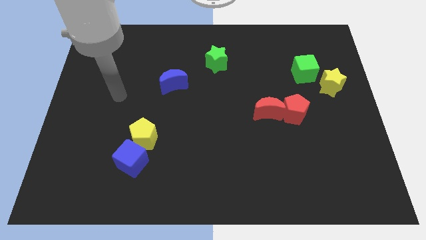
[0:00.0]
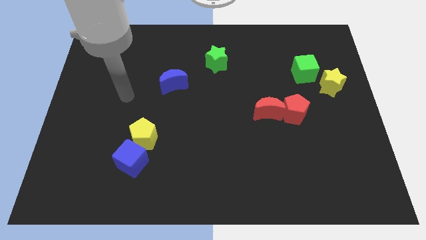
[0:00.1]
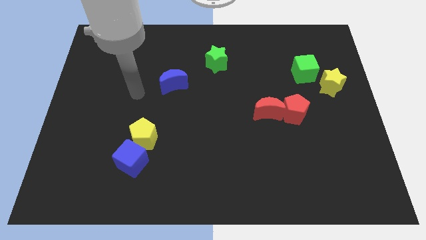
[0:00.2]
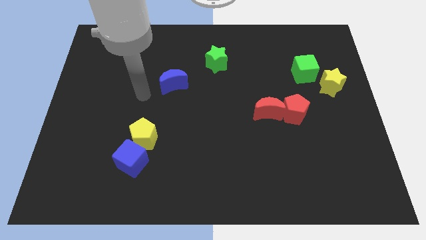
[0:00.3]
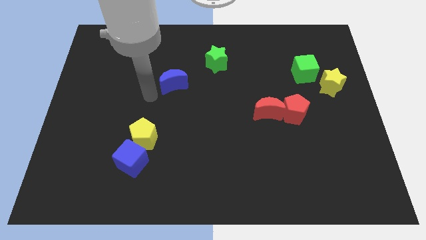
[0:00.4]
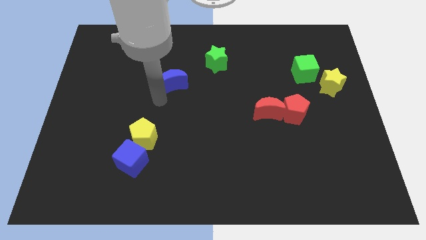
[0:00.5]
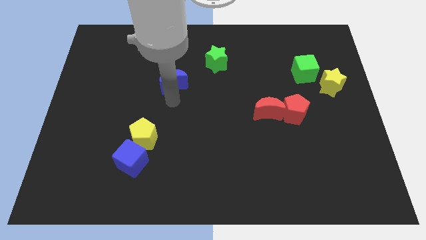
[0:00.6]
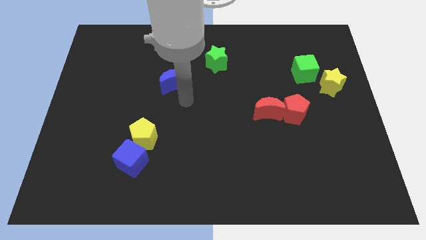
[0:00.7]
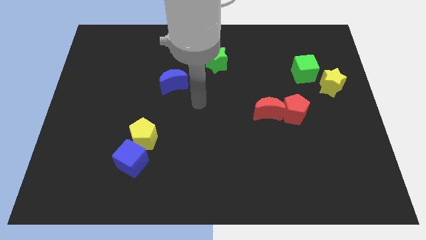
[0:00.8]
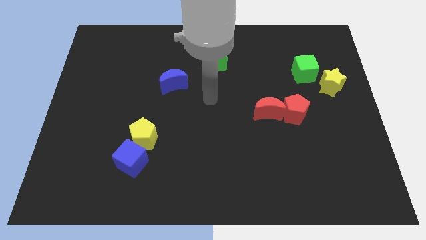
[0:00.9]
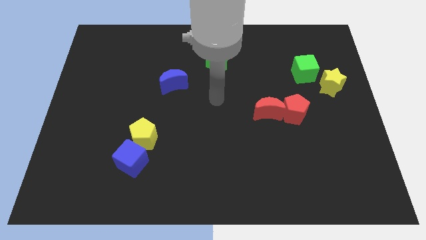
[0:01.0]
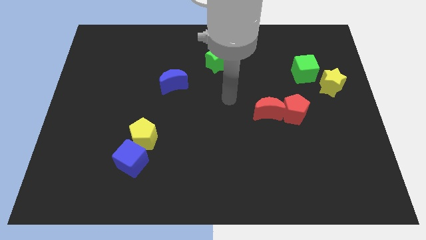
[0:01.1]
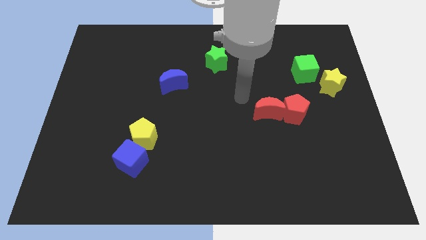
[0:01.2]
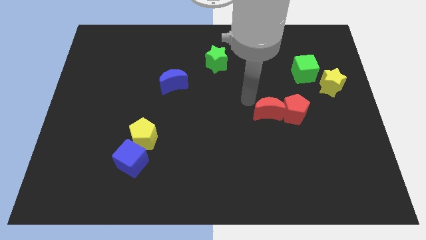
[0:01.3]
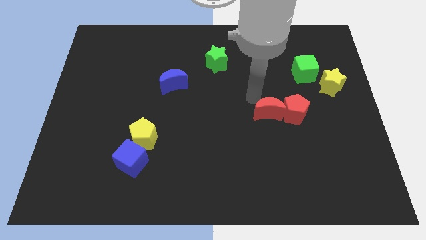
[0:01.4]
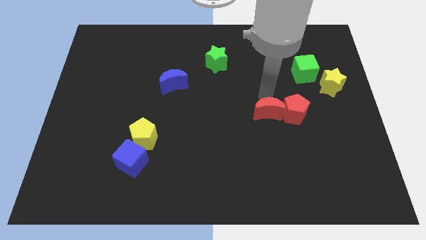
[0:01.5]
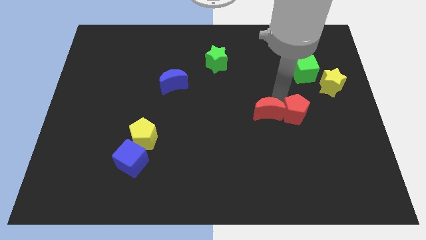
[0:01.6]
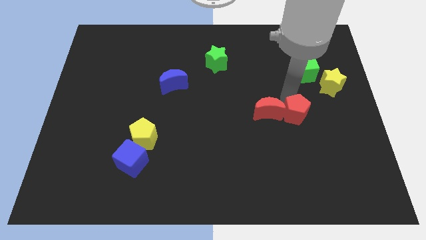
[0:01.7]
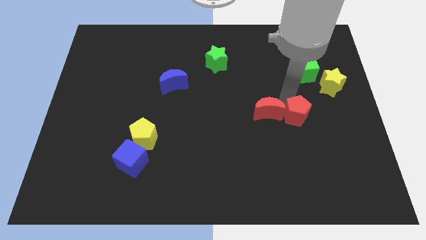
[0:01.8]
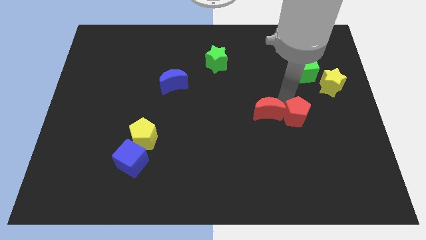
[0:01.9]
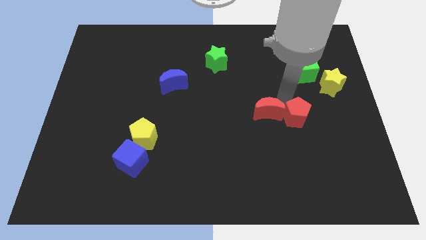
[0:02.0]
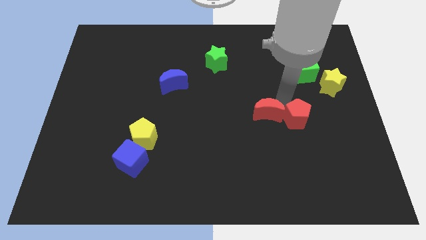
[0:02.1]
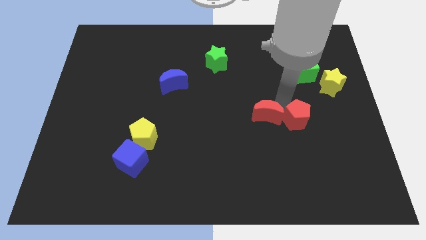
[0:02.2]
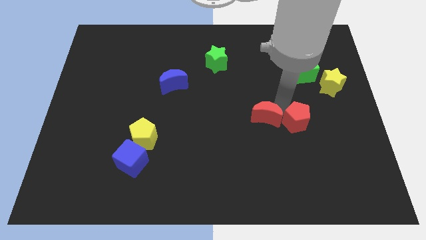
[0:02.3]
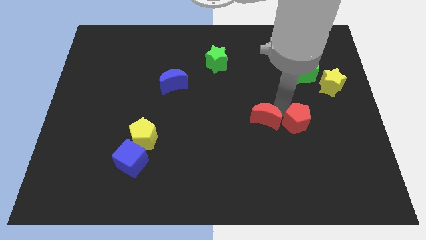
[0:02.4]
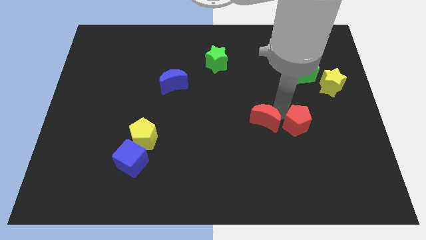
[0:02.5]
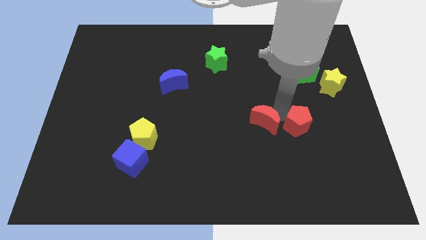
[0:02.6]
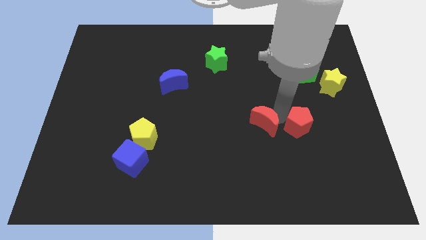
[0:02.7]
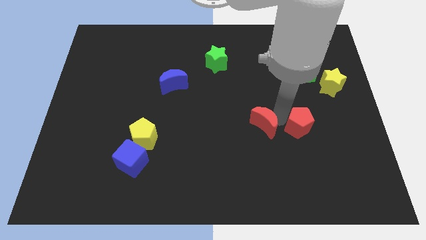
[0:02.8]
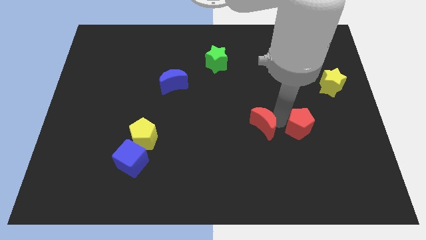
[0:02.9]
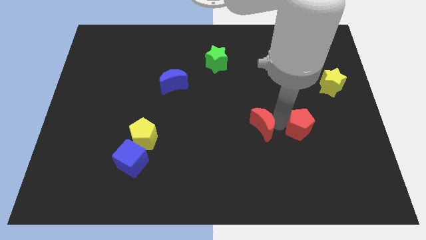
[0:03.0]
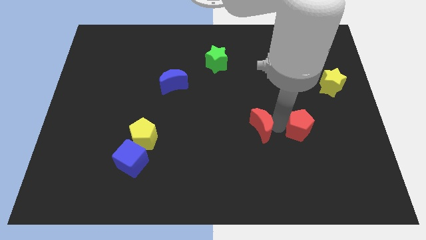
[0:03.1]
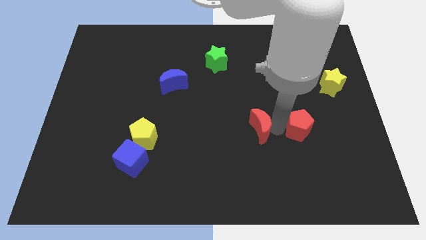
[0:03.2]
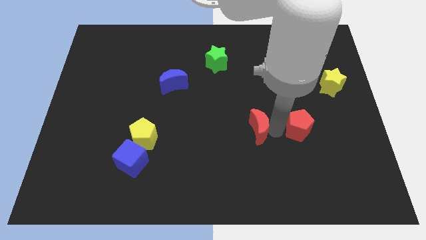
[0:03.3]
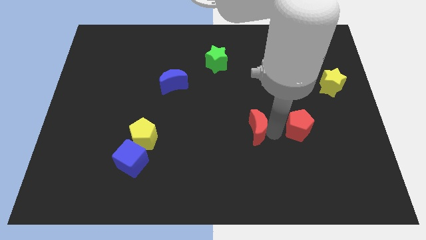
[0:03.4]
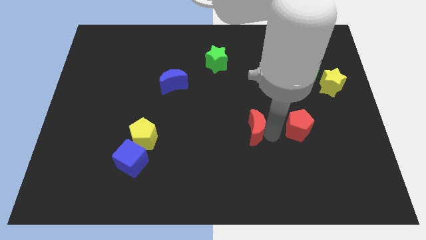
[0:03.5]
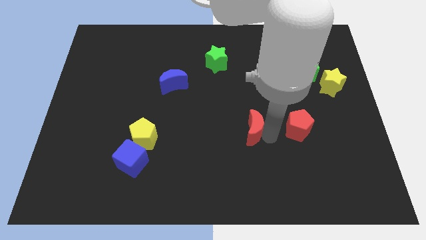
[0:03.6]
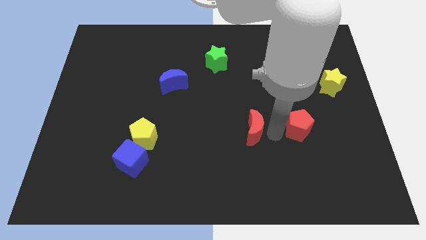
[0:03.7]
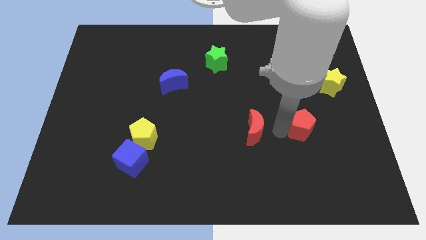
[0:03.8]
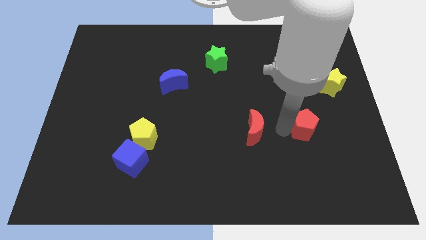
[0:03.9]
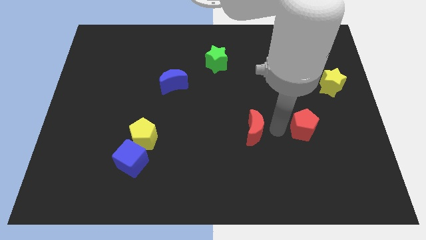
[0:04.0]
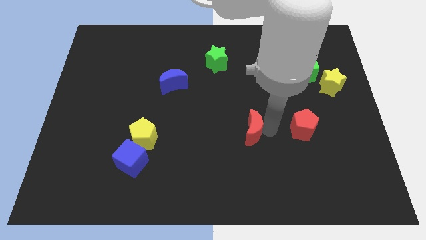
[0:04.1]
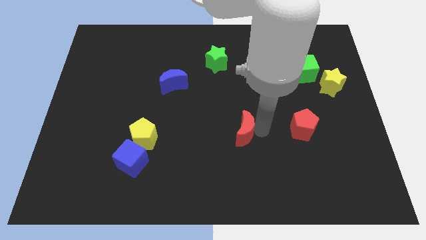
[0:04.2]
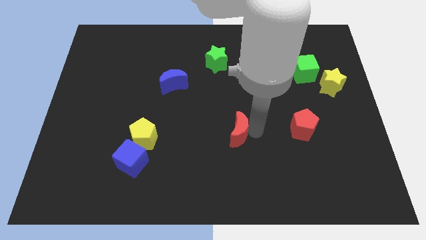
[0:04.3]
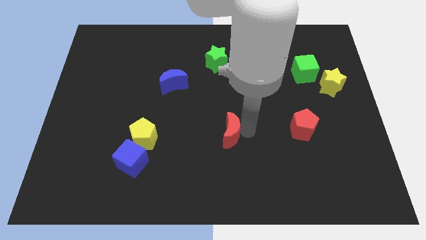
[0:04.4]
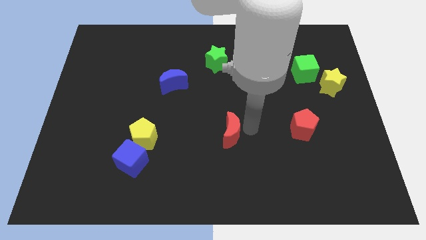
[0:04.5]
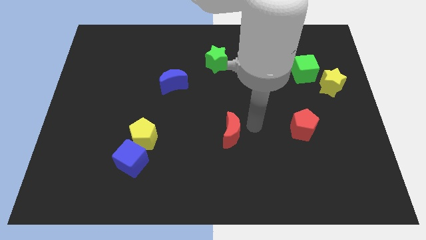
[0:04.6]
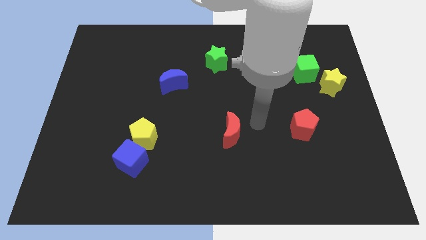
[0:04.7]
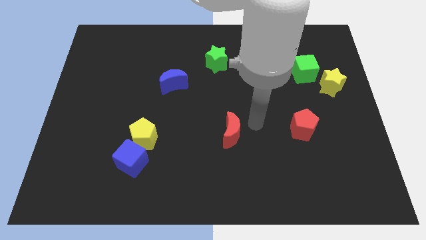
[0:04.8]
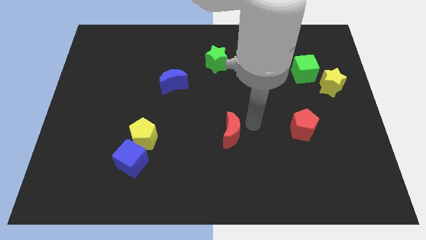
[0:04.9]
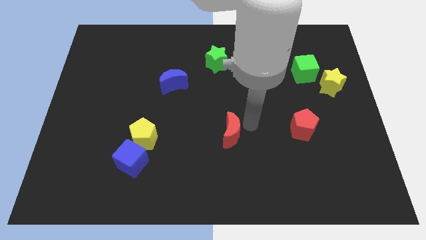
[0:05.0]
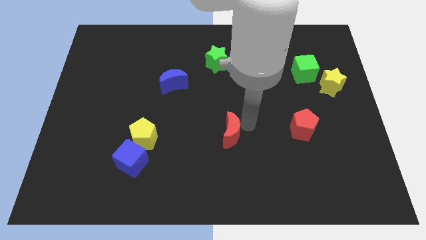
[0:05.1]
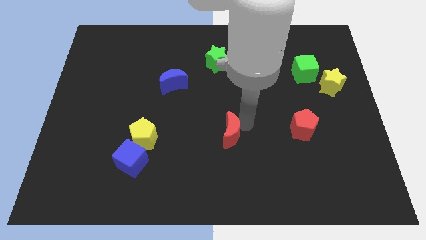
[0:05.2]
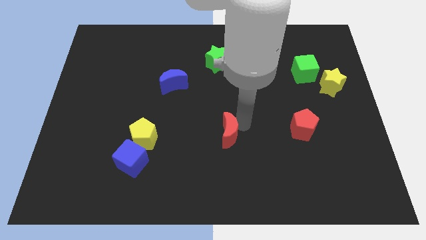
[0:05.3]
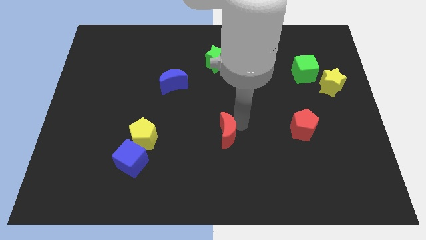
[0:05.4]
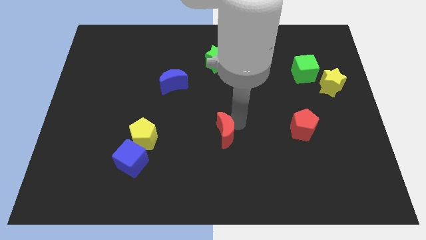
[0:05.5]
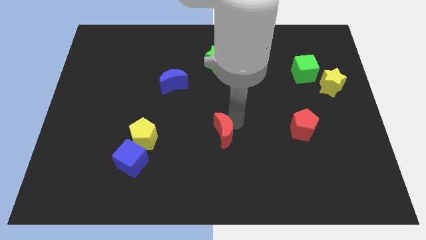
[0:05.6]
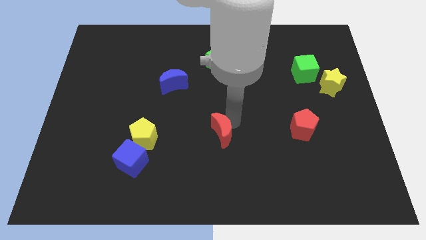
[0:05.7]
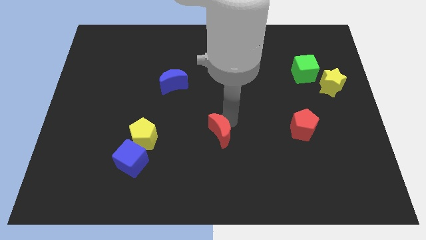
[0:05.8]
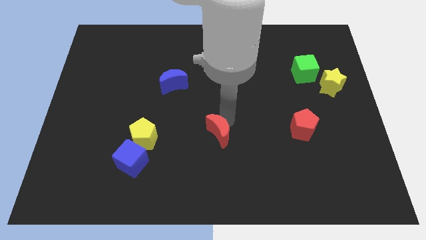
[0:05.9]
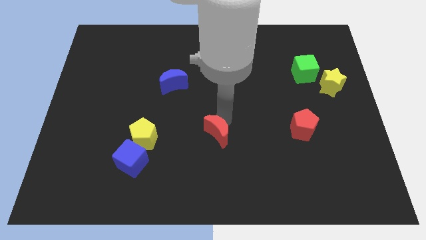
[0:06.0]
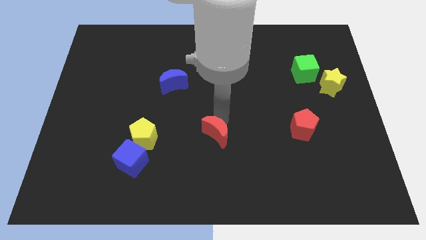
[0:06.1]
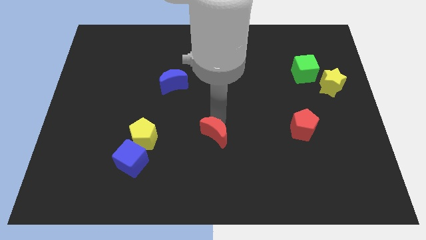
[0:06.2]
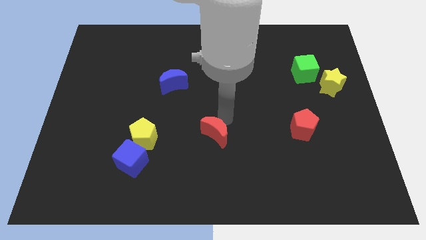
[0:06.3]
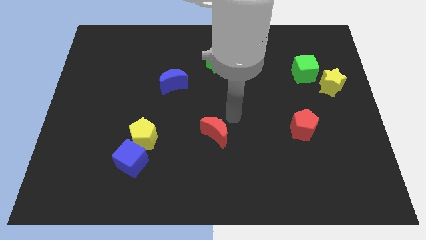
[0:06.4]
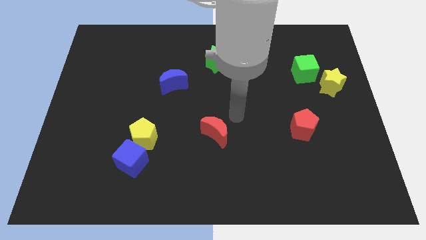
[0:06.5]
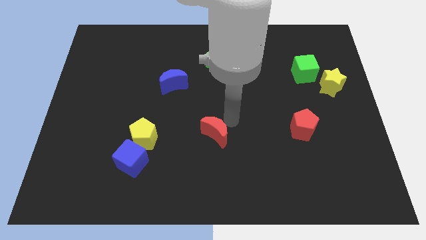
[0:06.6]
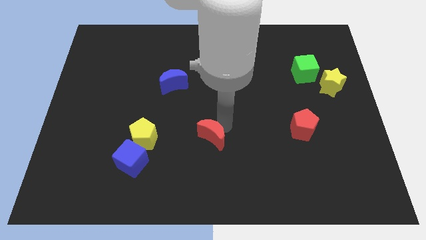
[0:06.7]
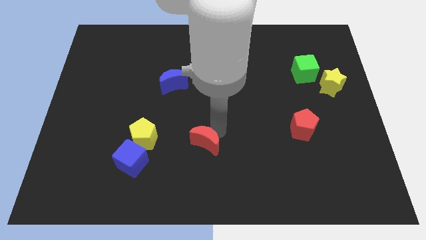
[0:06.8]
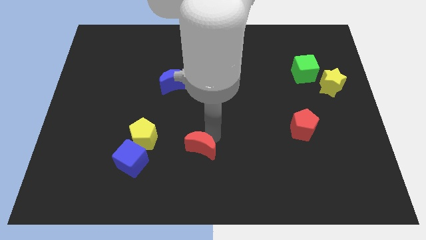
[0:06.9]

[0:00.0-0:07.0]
move the red moon just right of the blue cube

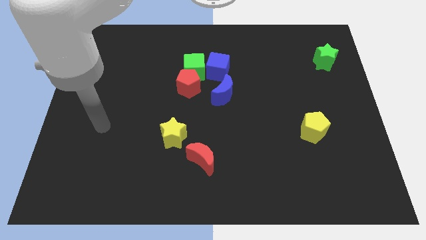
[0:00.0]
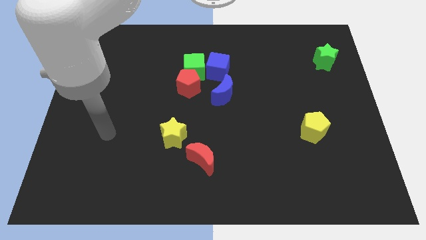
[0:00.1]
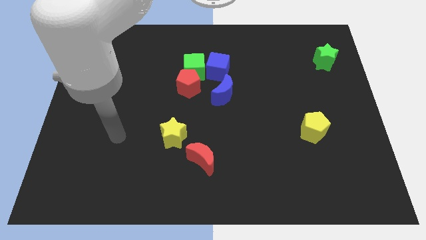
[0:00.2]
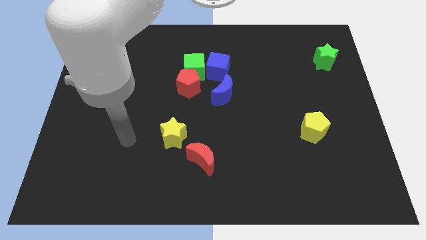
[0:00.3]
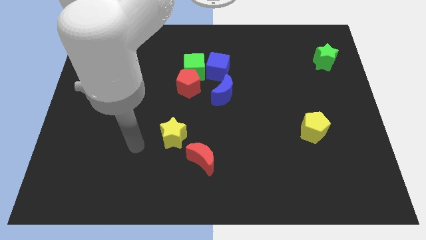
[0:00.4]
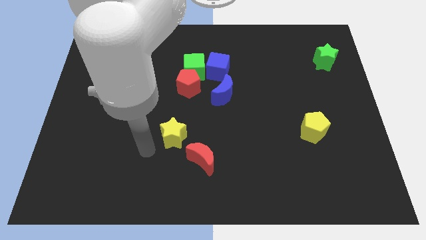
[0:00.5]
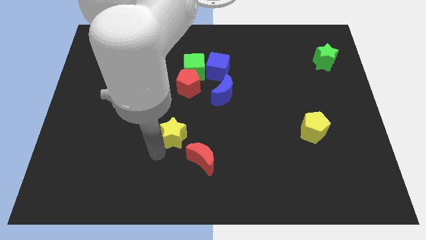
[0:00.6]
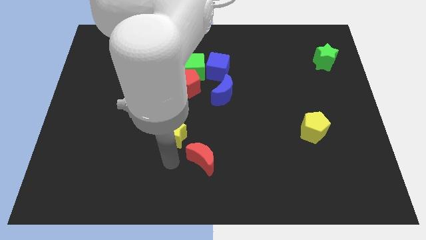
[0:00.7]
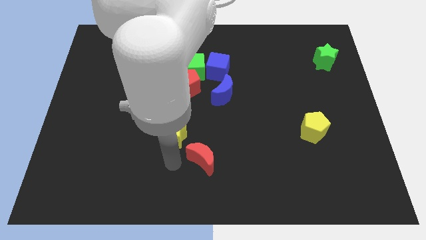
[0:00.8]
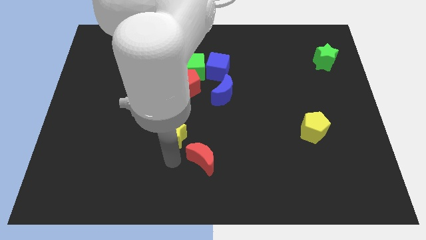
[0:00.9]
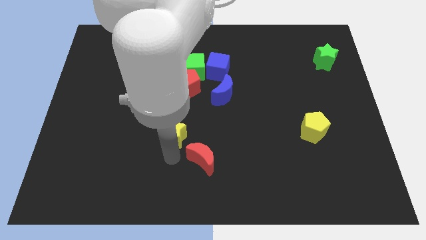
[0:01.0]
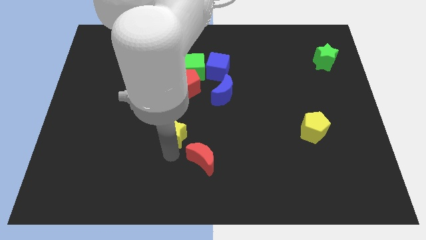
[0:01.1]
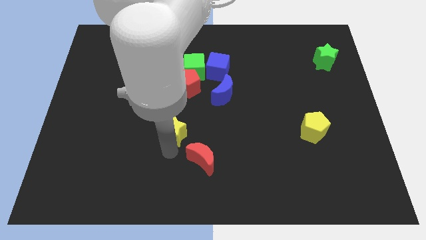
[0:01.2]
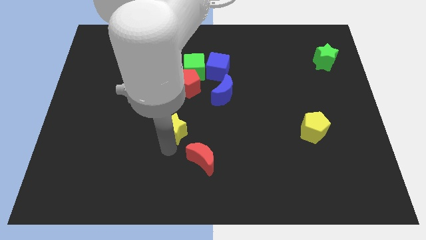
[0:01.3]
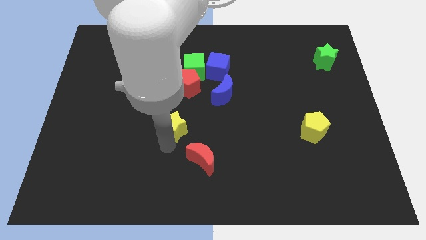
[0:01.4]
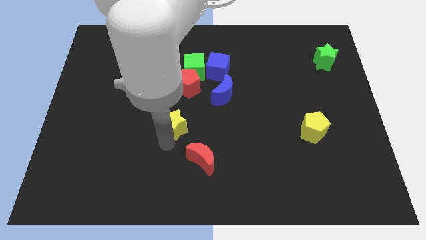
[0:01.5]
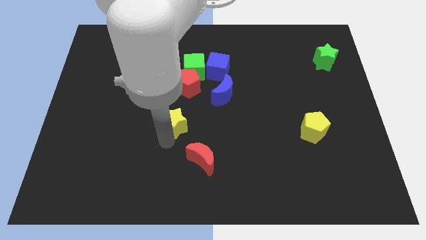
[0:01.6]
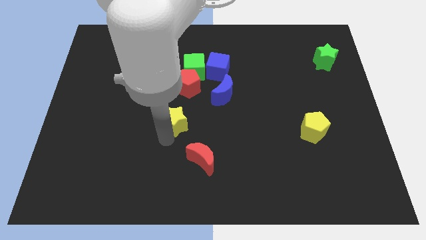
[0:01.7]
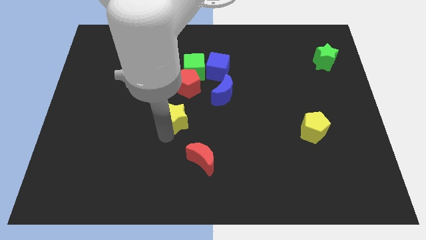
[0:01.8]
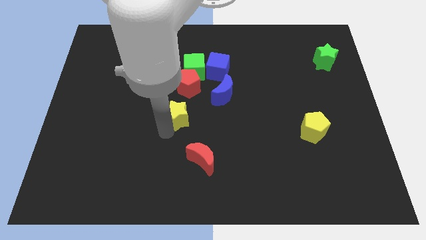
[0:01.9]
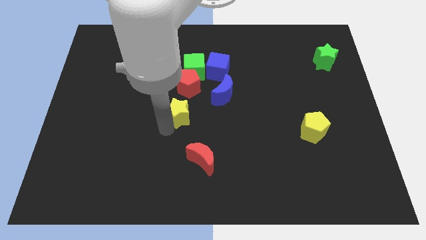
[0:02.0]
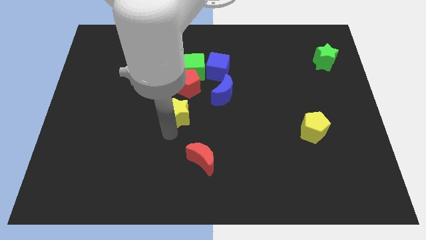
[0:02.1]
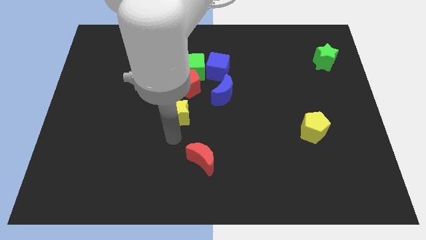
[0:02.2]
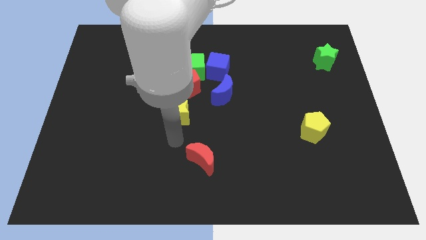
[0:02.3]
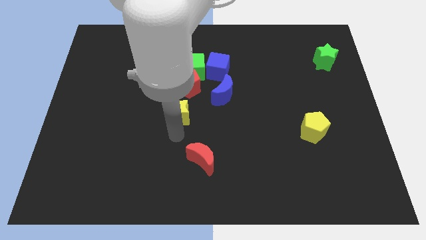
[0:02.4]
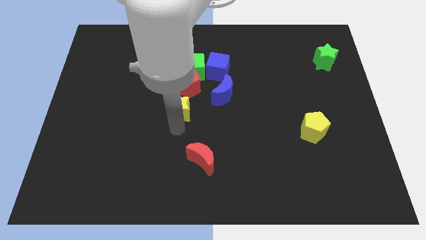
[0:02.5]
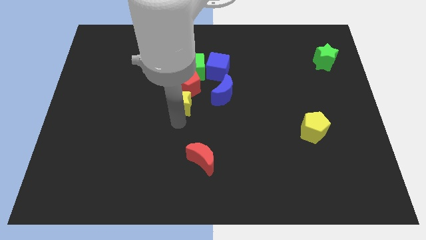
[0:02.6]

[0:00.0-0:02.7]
move the yellow star to the left of the blue moon
